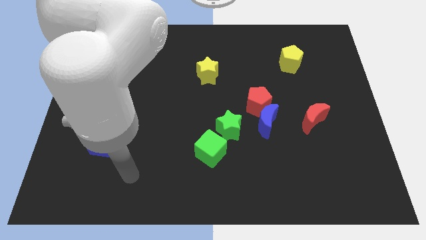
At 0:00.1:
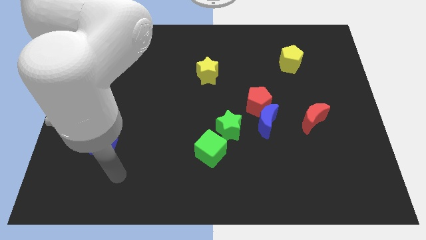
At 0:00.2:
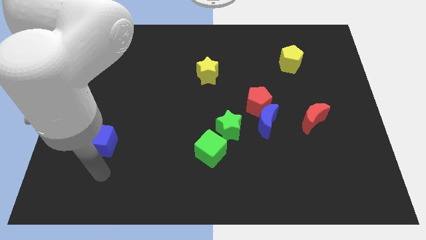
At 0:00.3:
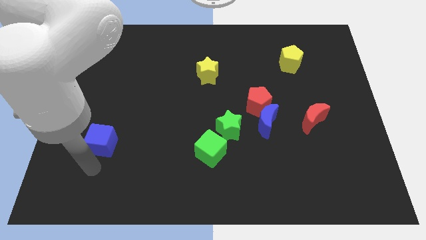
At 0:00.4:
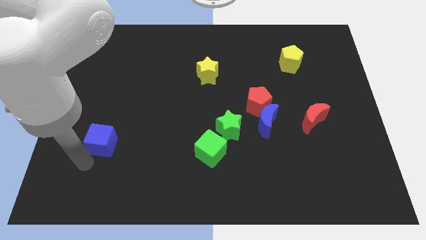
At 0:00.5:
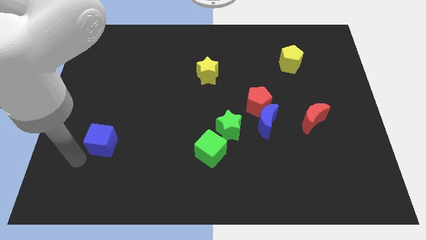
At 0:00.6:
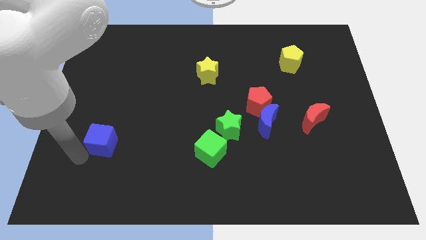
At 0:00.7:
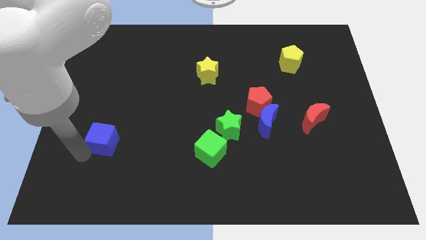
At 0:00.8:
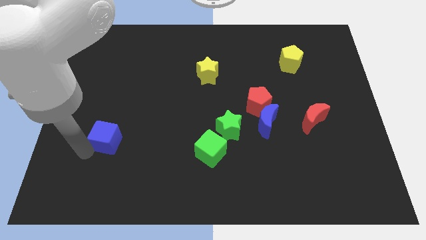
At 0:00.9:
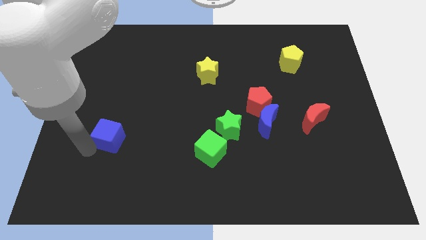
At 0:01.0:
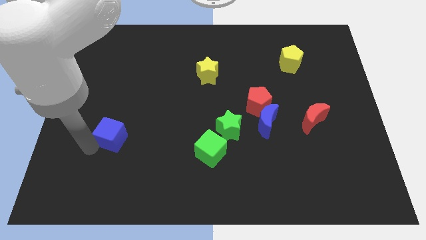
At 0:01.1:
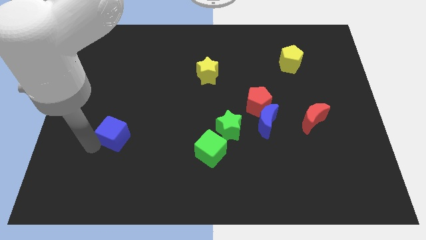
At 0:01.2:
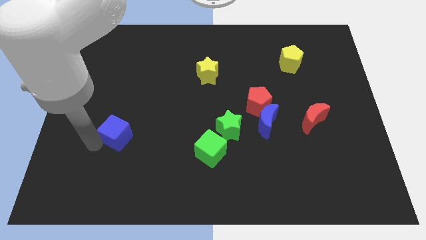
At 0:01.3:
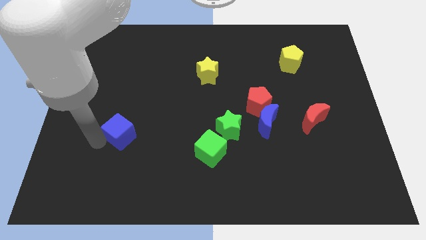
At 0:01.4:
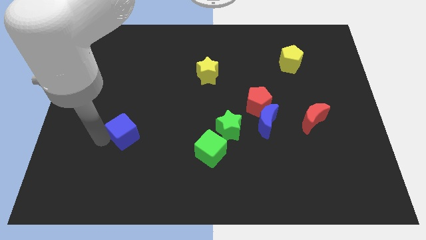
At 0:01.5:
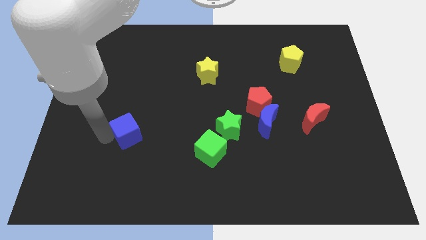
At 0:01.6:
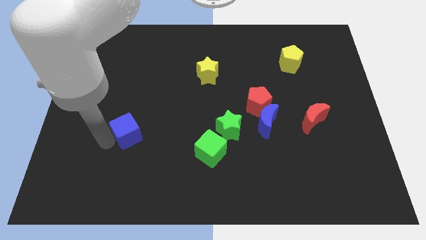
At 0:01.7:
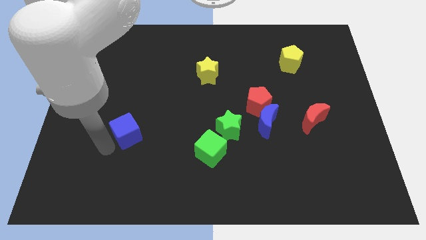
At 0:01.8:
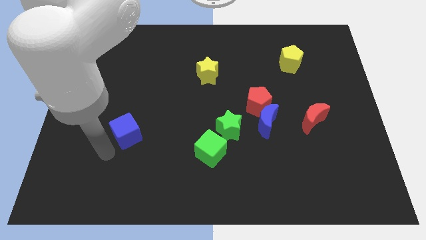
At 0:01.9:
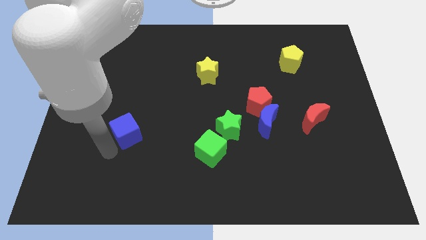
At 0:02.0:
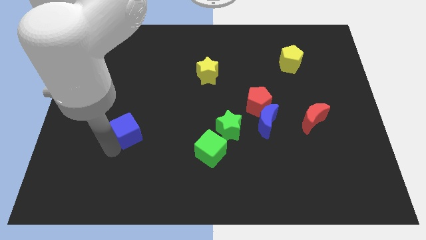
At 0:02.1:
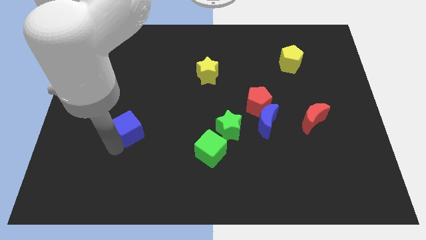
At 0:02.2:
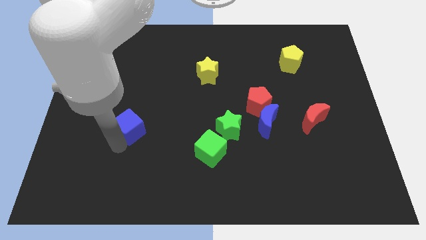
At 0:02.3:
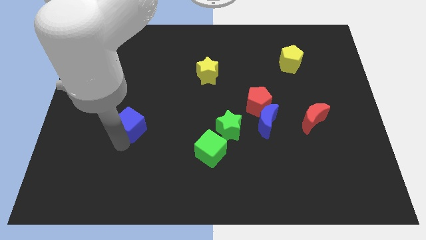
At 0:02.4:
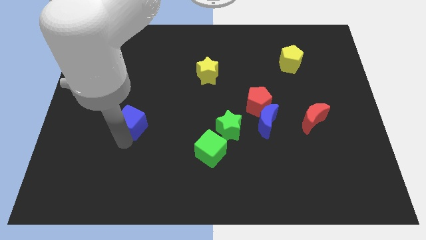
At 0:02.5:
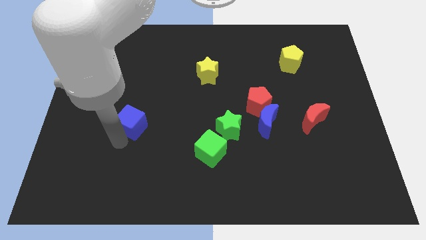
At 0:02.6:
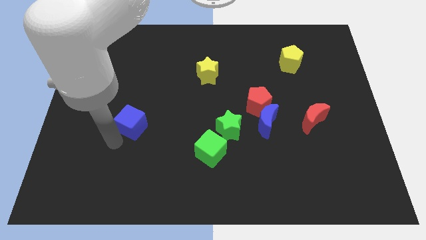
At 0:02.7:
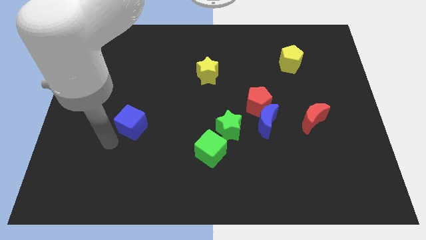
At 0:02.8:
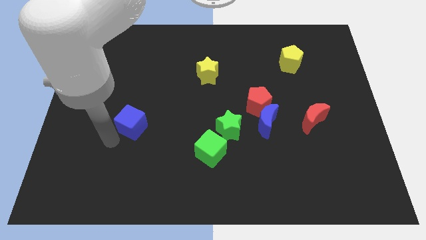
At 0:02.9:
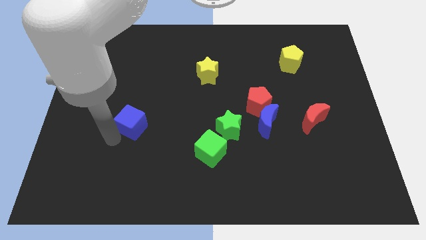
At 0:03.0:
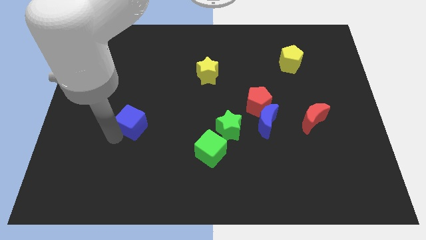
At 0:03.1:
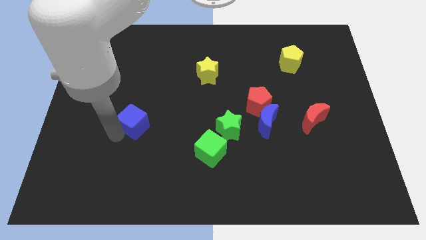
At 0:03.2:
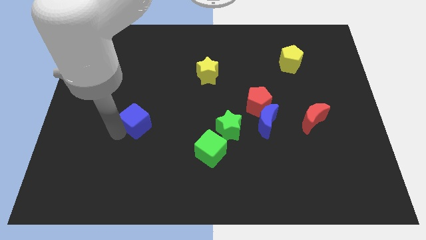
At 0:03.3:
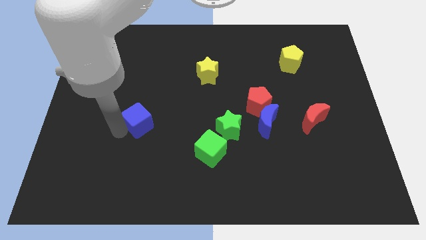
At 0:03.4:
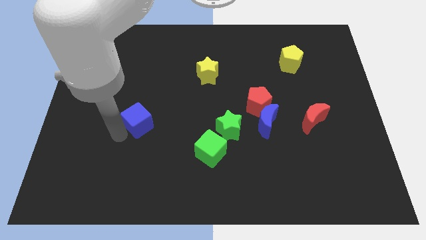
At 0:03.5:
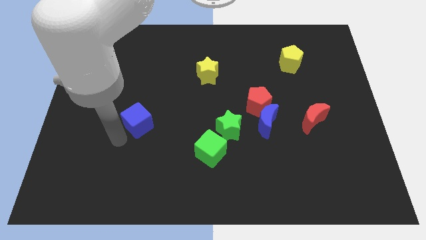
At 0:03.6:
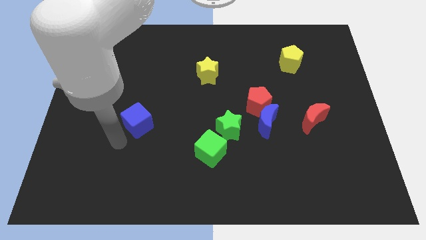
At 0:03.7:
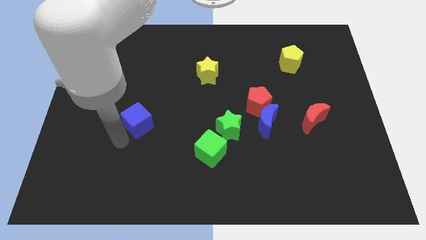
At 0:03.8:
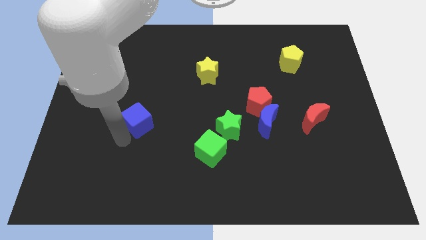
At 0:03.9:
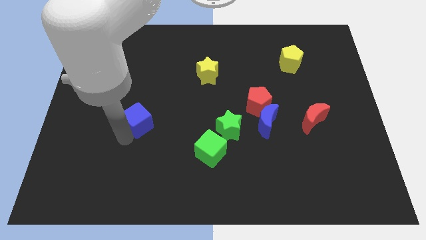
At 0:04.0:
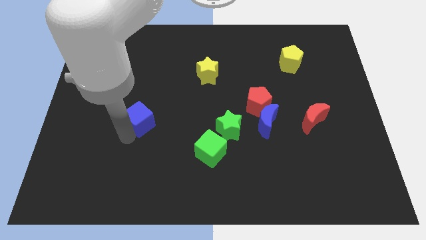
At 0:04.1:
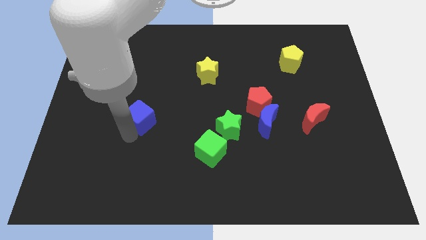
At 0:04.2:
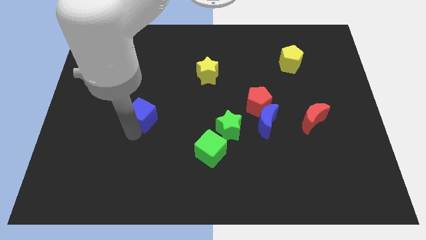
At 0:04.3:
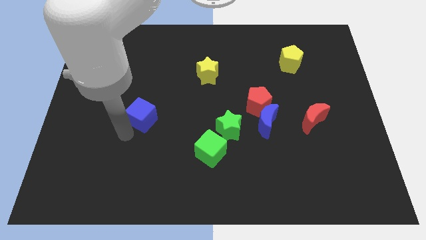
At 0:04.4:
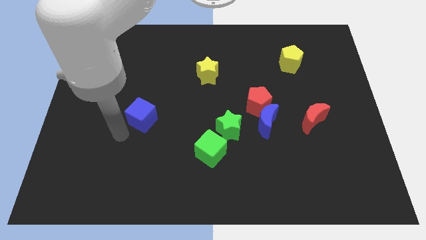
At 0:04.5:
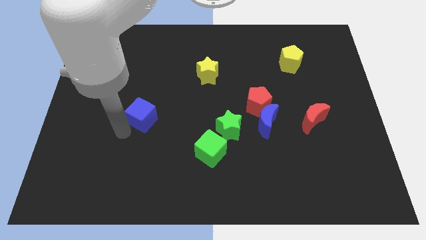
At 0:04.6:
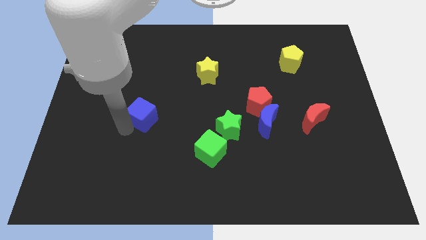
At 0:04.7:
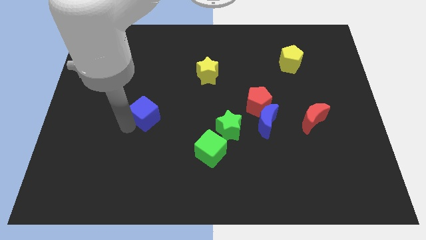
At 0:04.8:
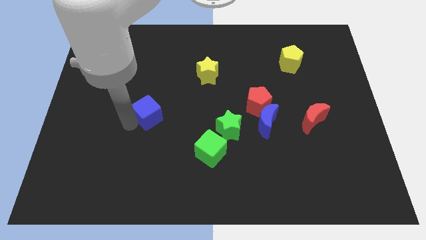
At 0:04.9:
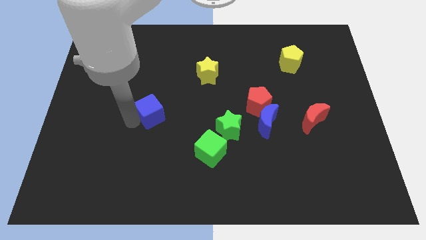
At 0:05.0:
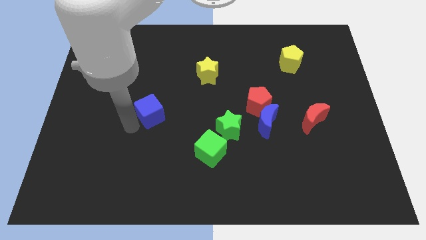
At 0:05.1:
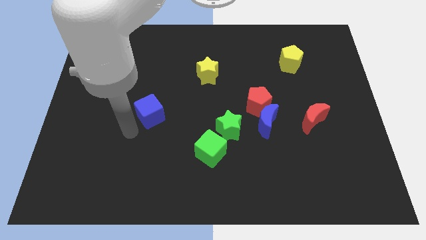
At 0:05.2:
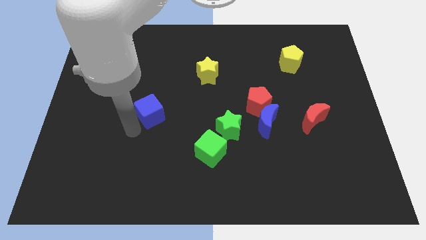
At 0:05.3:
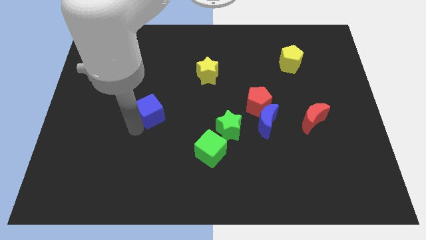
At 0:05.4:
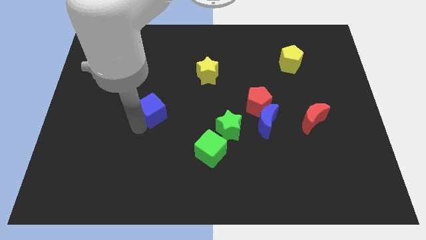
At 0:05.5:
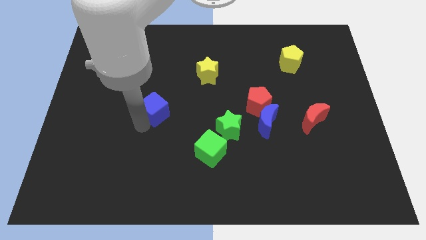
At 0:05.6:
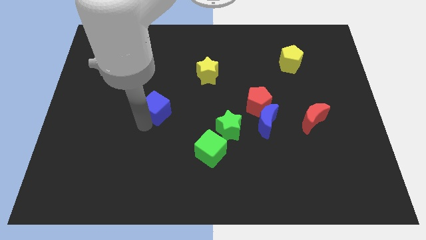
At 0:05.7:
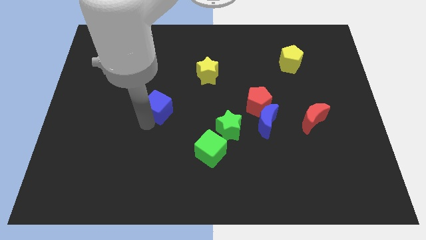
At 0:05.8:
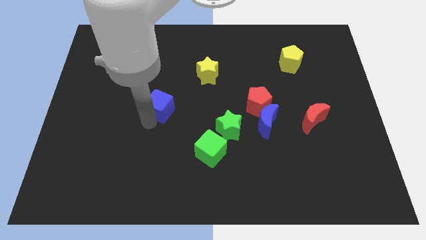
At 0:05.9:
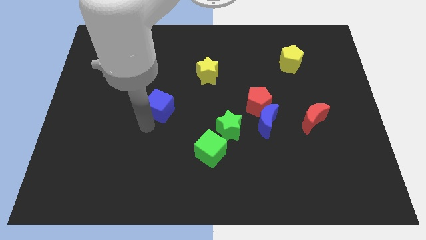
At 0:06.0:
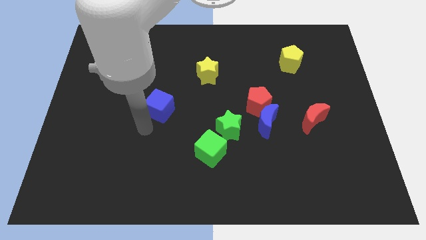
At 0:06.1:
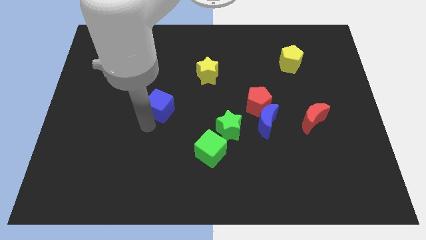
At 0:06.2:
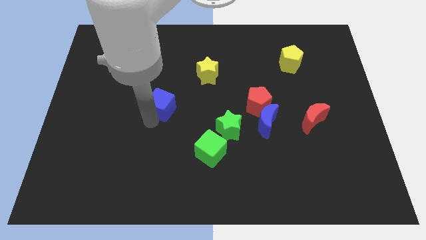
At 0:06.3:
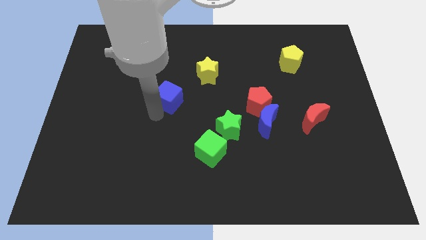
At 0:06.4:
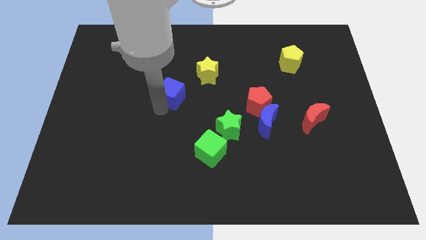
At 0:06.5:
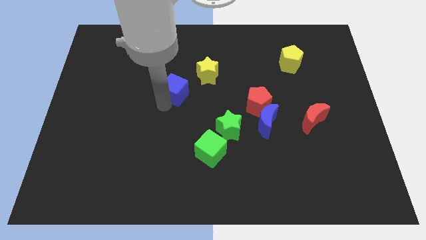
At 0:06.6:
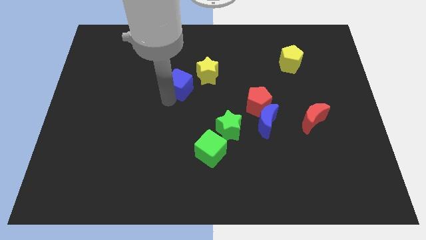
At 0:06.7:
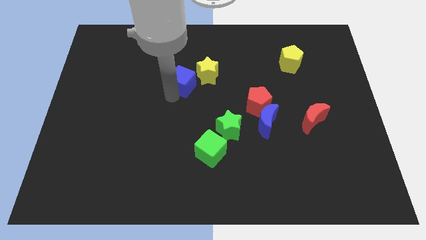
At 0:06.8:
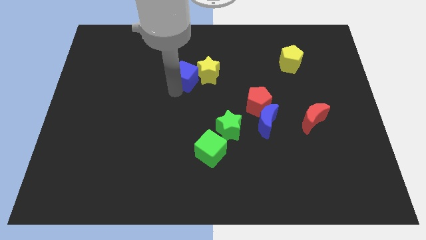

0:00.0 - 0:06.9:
slide the blue cube close to the yellow star
